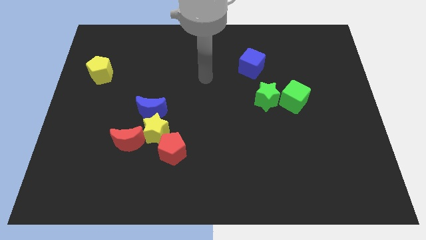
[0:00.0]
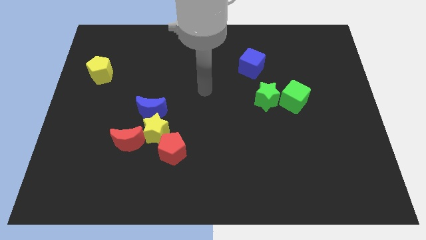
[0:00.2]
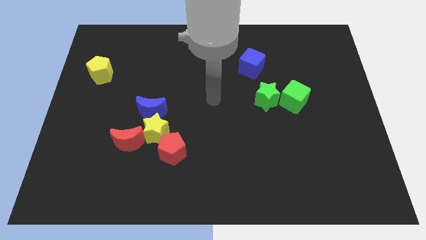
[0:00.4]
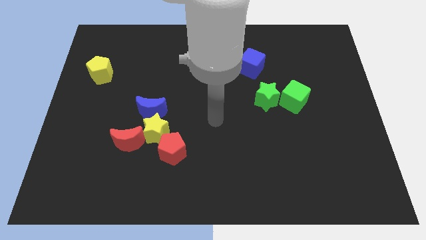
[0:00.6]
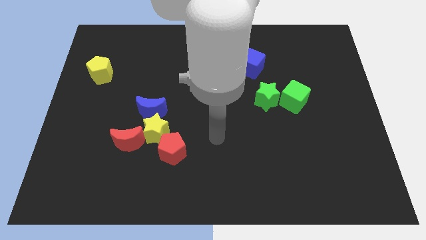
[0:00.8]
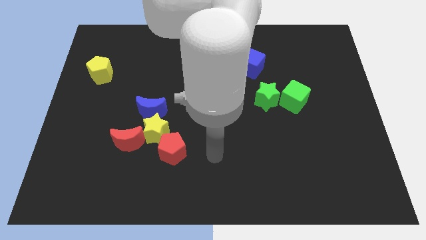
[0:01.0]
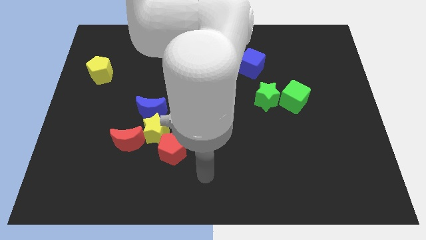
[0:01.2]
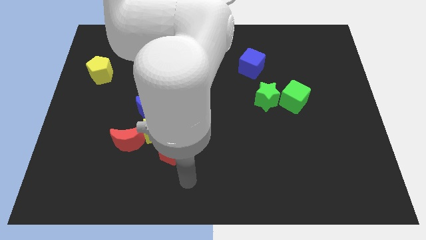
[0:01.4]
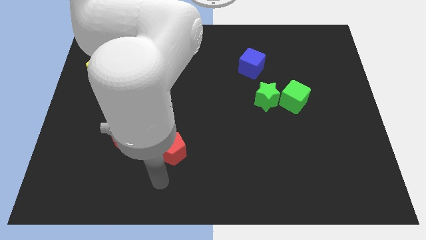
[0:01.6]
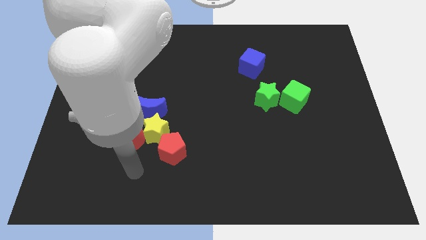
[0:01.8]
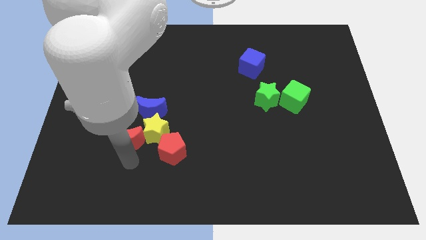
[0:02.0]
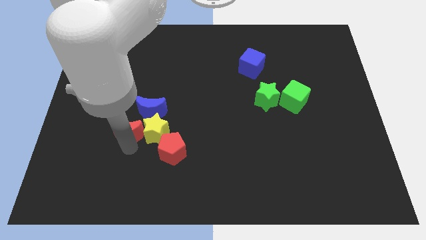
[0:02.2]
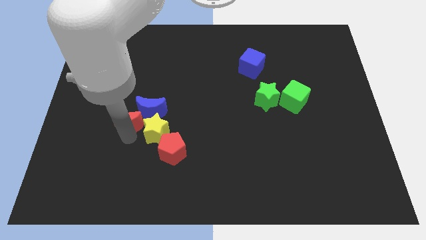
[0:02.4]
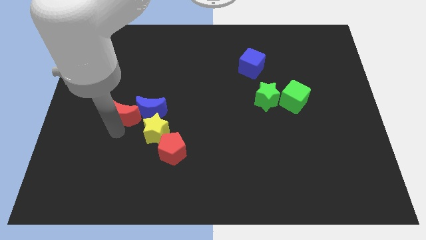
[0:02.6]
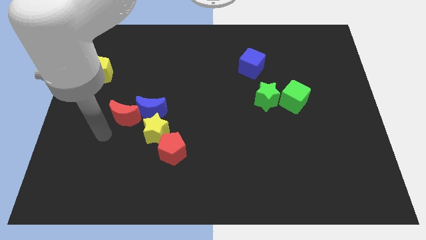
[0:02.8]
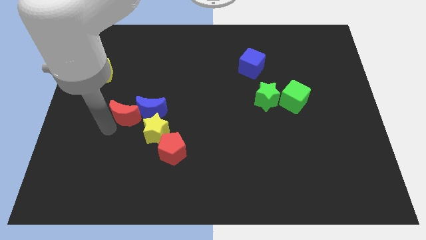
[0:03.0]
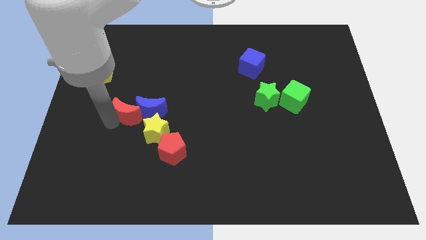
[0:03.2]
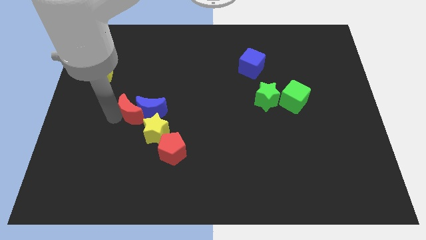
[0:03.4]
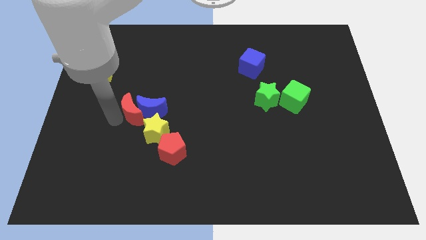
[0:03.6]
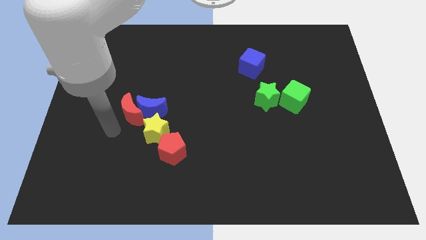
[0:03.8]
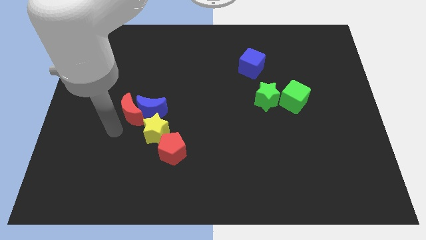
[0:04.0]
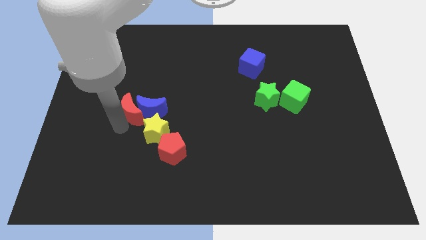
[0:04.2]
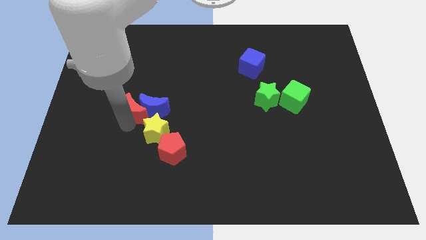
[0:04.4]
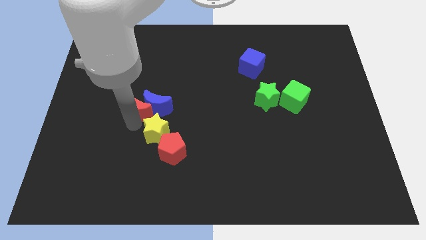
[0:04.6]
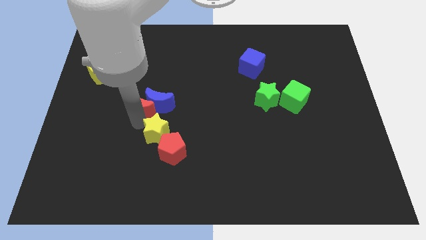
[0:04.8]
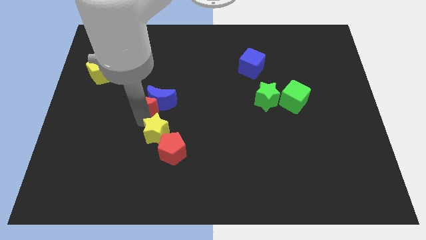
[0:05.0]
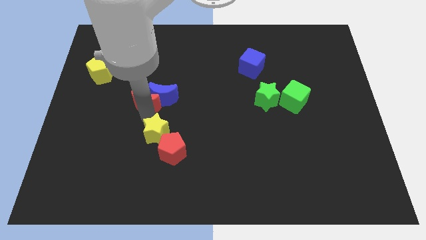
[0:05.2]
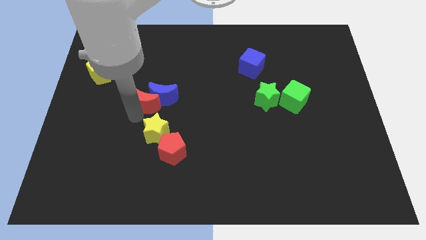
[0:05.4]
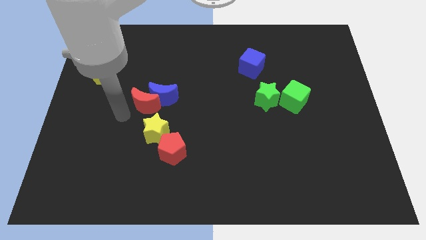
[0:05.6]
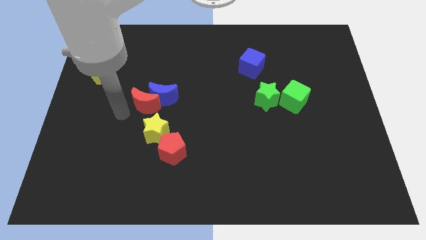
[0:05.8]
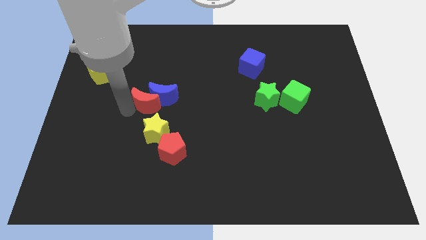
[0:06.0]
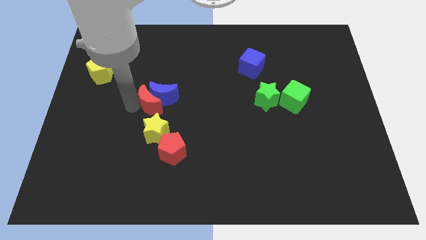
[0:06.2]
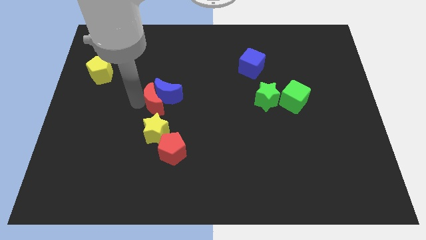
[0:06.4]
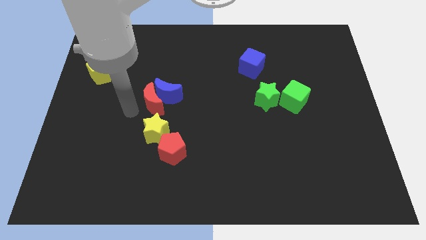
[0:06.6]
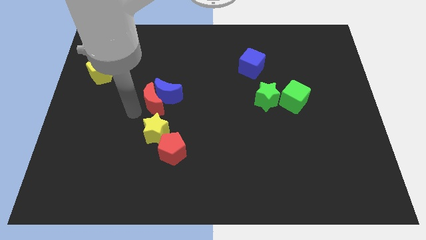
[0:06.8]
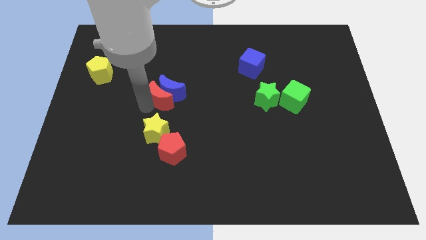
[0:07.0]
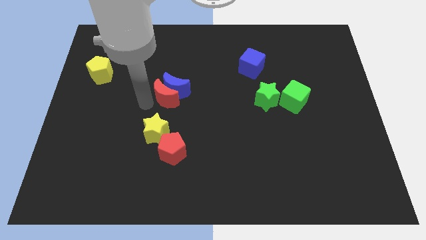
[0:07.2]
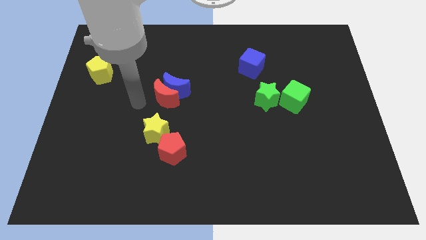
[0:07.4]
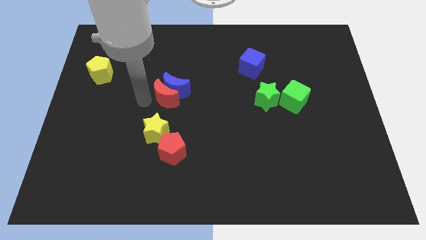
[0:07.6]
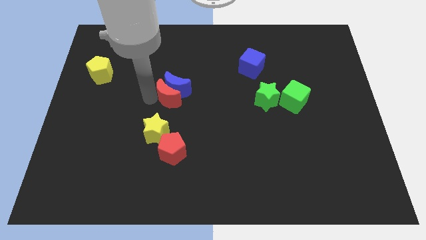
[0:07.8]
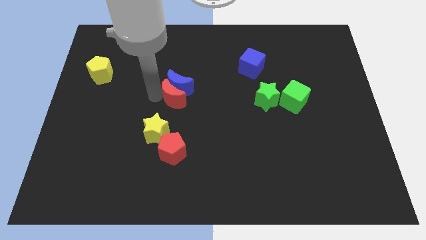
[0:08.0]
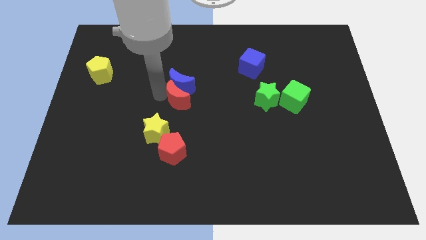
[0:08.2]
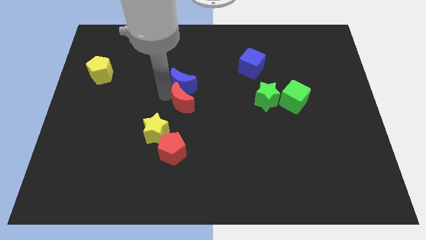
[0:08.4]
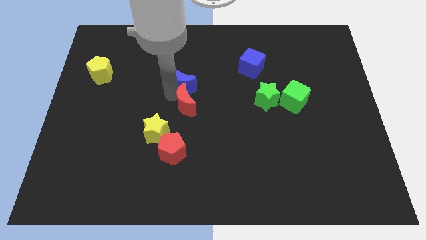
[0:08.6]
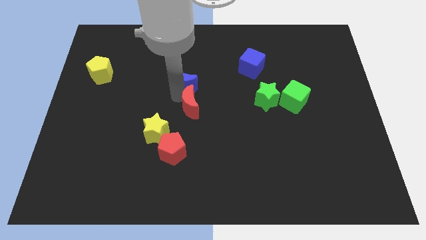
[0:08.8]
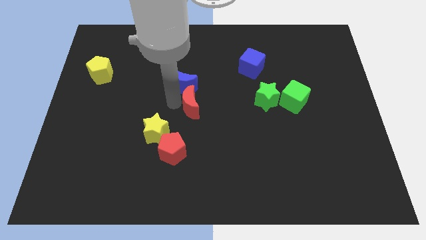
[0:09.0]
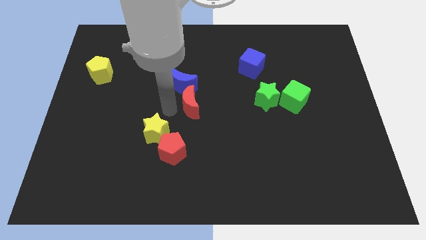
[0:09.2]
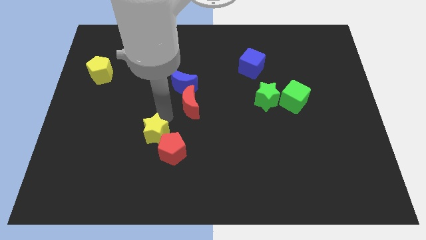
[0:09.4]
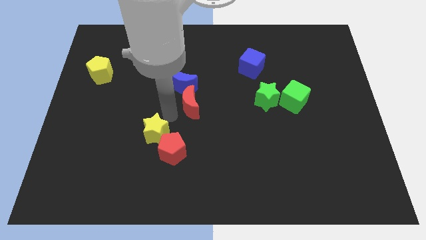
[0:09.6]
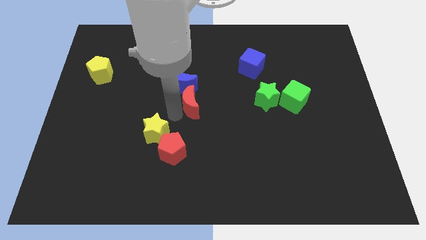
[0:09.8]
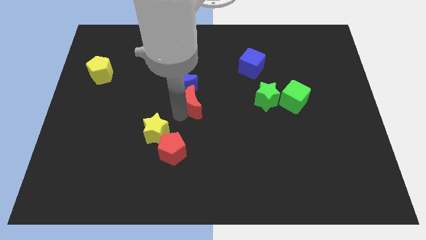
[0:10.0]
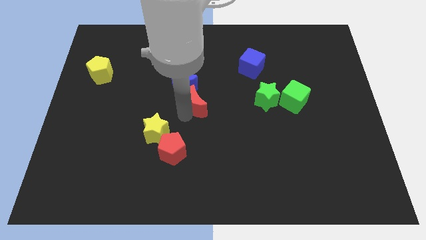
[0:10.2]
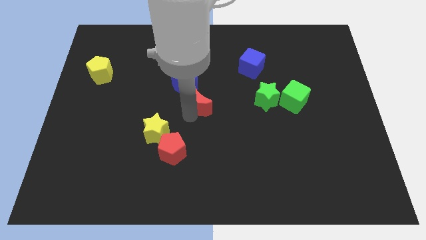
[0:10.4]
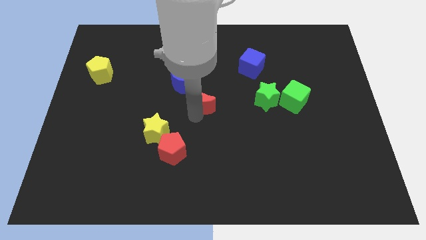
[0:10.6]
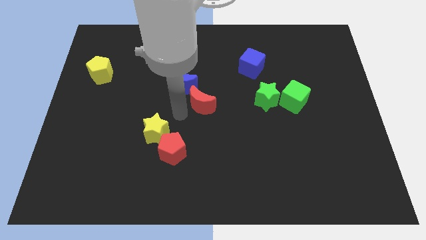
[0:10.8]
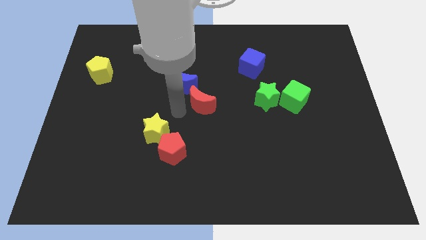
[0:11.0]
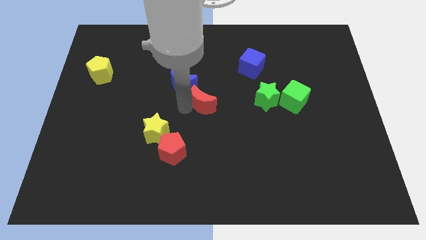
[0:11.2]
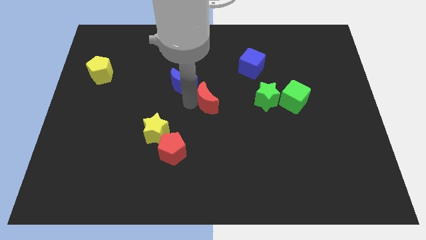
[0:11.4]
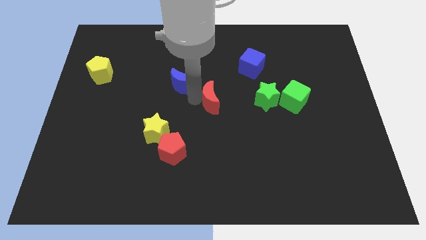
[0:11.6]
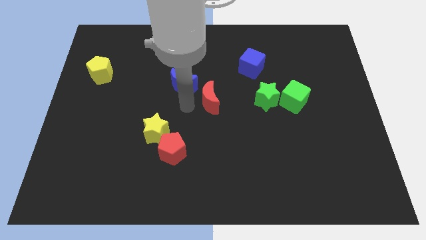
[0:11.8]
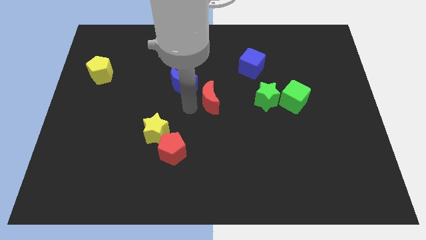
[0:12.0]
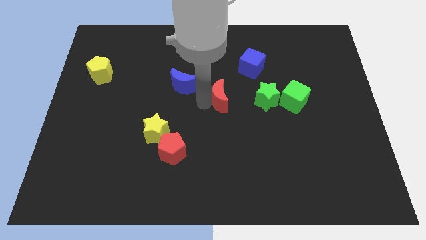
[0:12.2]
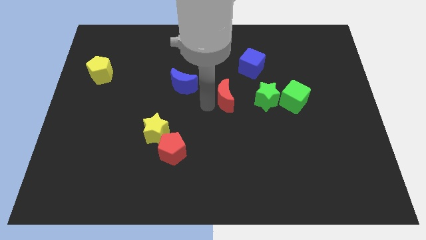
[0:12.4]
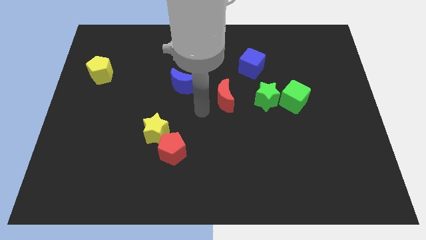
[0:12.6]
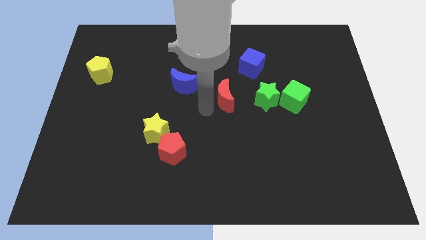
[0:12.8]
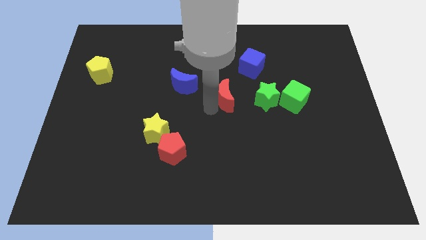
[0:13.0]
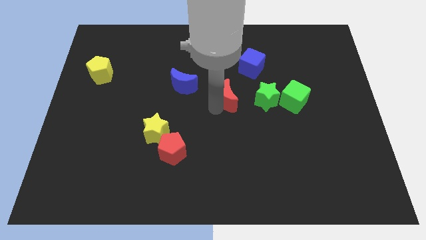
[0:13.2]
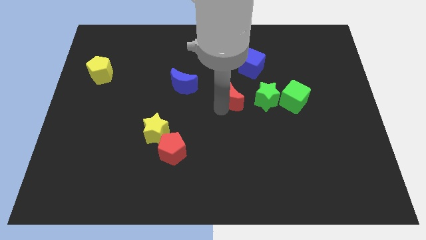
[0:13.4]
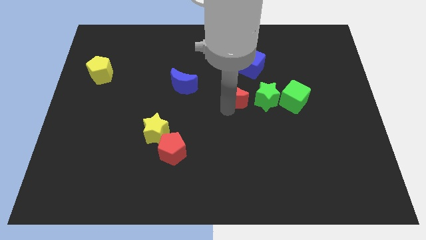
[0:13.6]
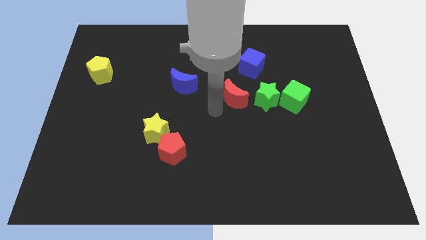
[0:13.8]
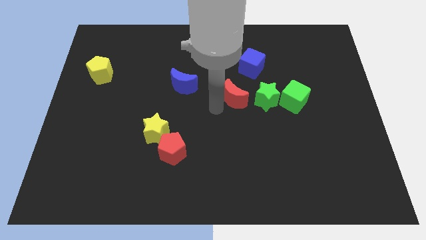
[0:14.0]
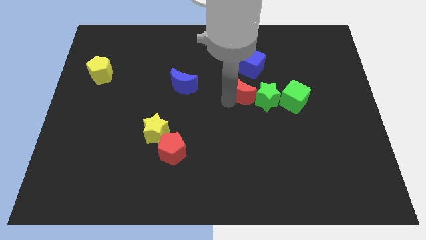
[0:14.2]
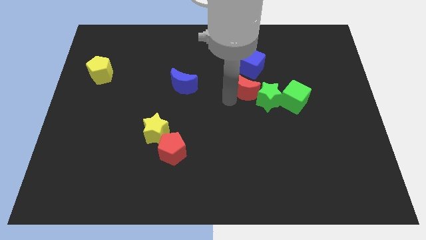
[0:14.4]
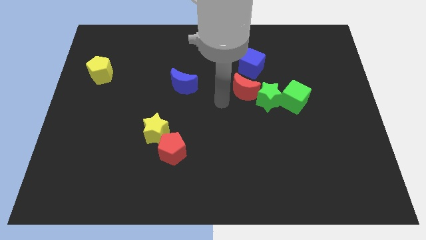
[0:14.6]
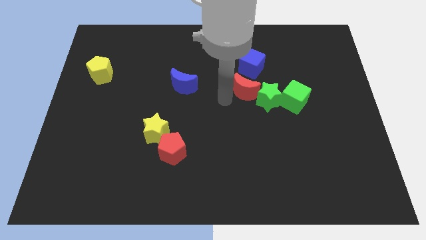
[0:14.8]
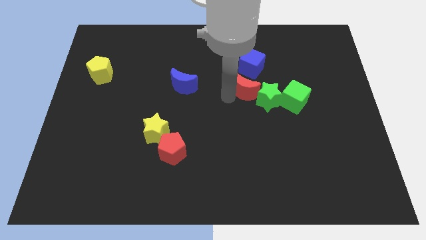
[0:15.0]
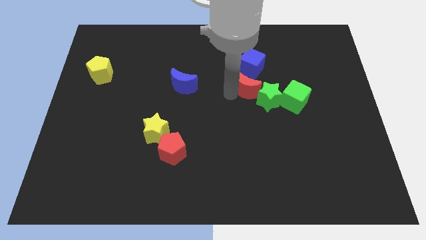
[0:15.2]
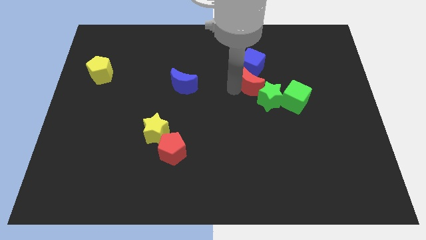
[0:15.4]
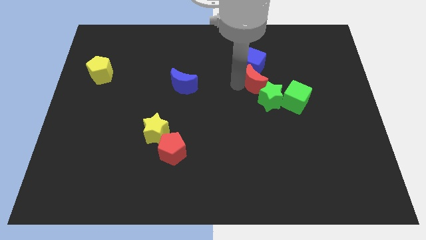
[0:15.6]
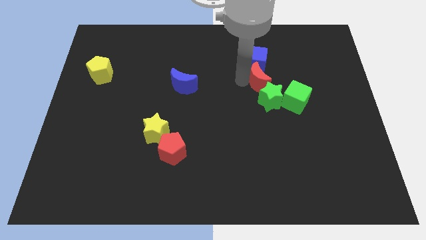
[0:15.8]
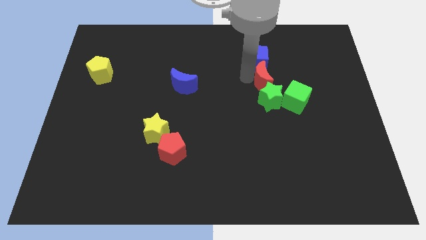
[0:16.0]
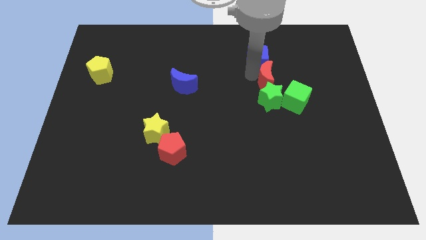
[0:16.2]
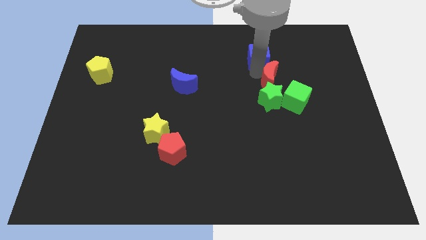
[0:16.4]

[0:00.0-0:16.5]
put the red moon to the top right of the green star
